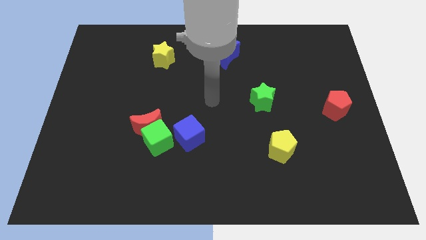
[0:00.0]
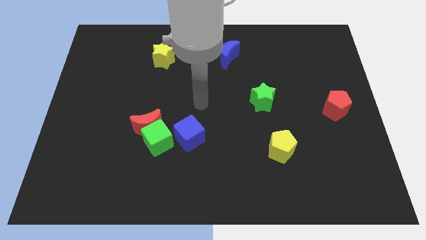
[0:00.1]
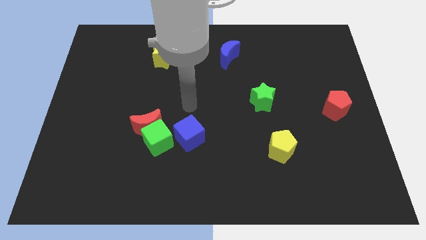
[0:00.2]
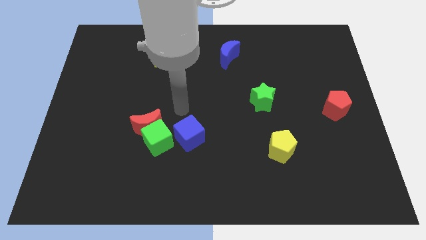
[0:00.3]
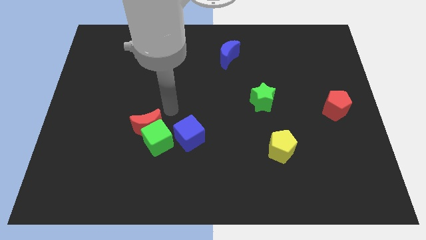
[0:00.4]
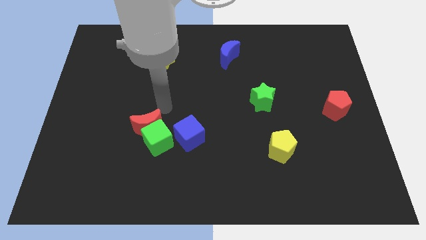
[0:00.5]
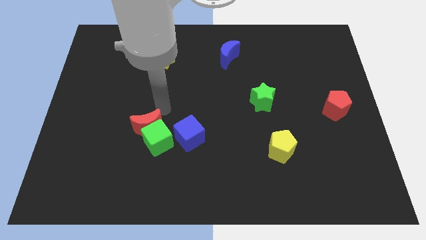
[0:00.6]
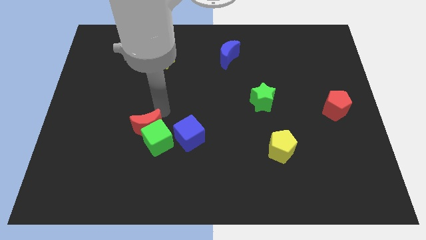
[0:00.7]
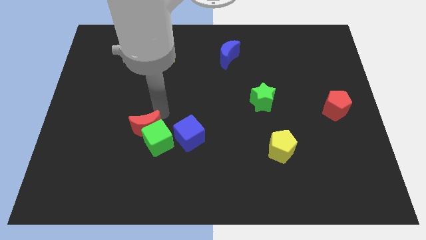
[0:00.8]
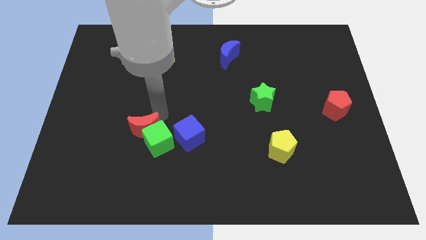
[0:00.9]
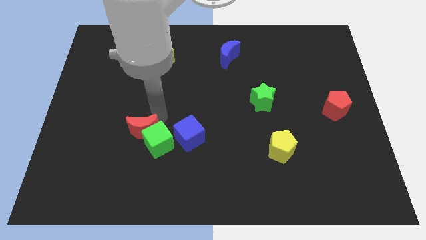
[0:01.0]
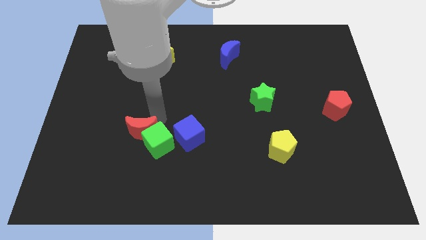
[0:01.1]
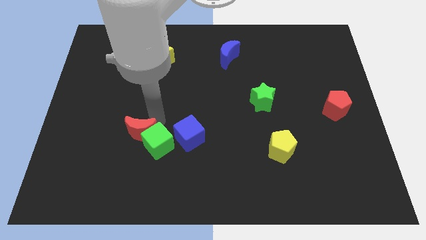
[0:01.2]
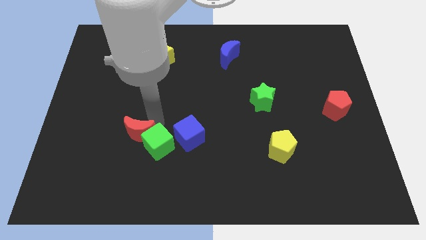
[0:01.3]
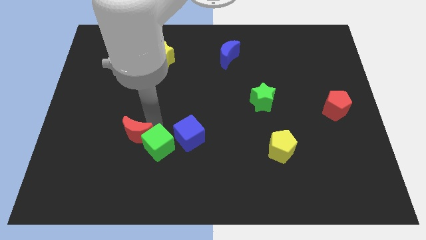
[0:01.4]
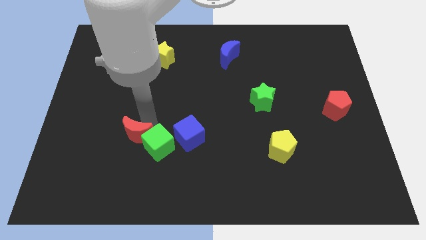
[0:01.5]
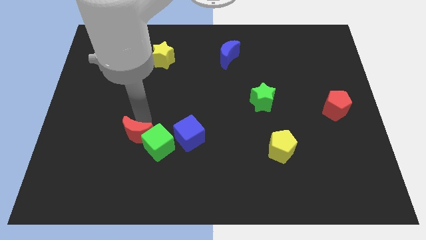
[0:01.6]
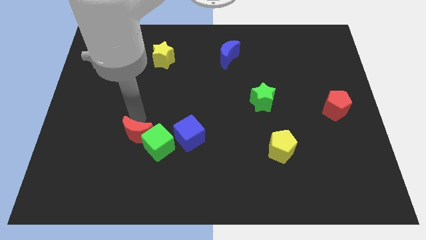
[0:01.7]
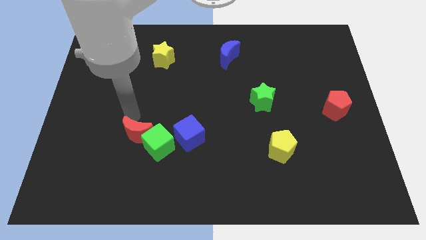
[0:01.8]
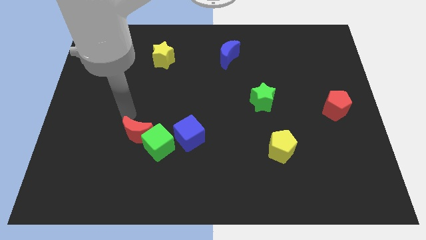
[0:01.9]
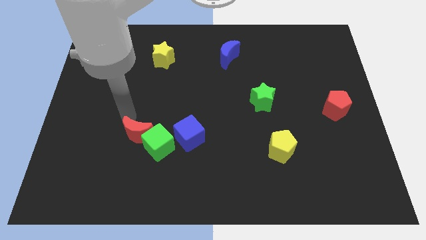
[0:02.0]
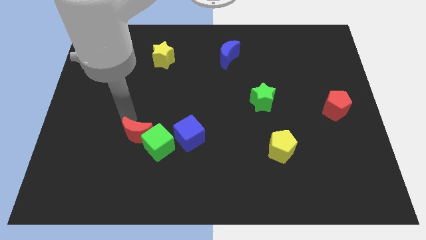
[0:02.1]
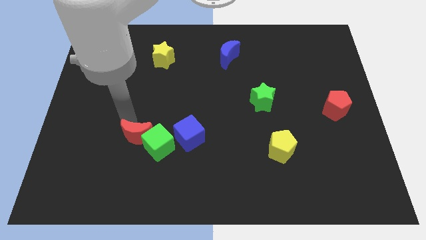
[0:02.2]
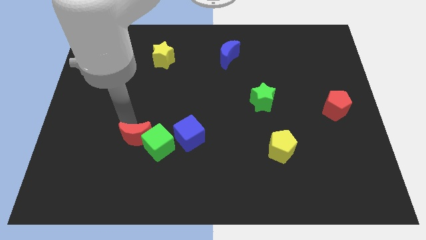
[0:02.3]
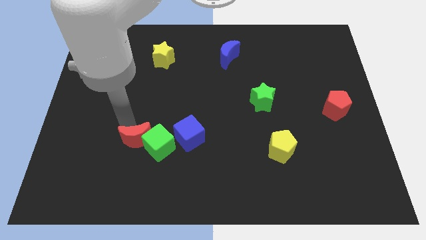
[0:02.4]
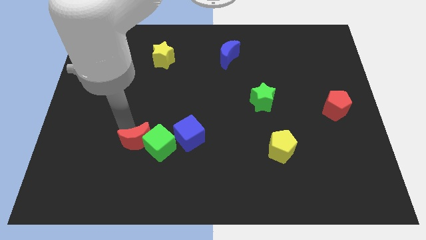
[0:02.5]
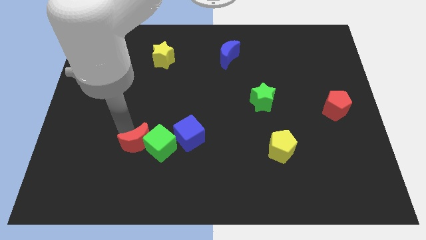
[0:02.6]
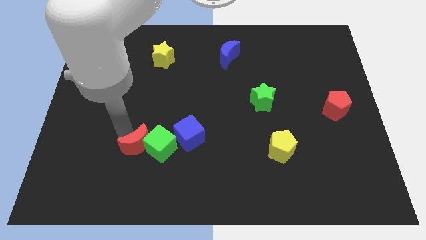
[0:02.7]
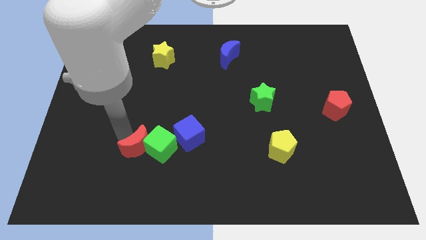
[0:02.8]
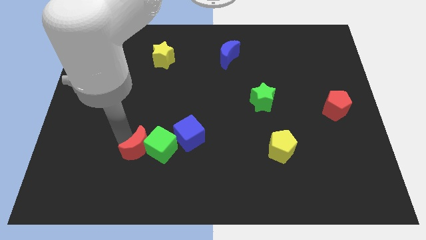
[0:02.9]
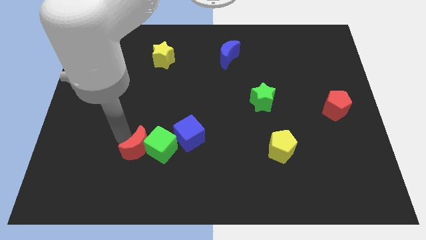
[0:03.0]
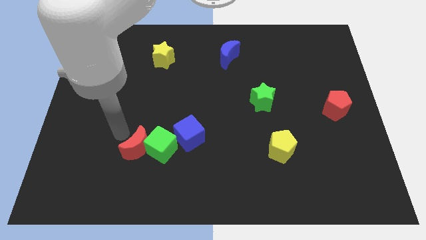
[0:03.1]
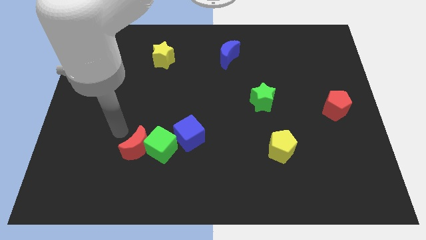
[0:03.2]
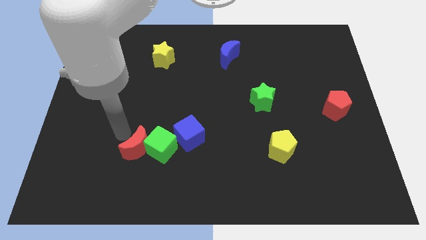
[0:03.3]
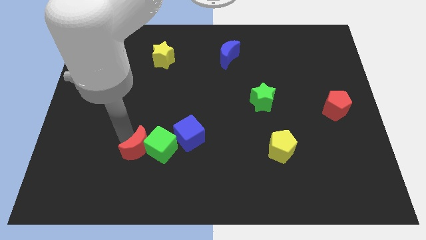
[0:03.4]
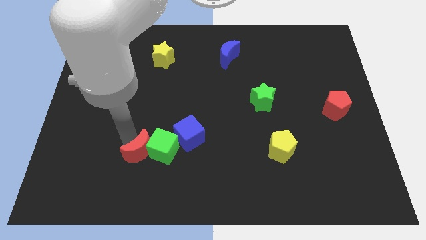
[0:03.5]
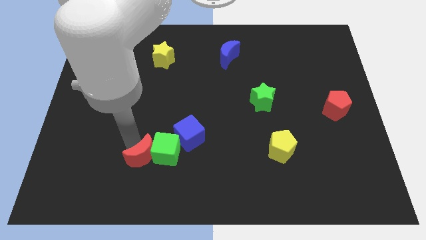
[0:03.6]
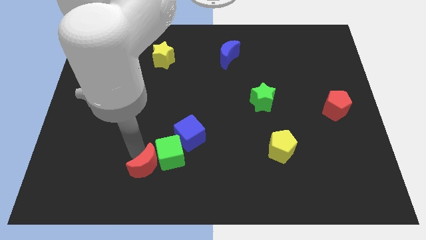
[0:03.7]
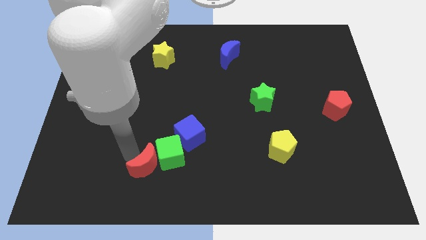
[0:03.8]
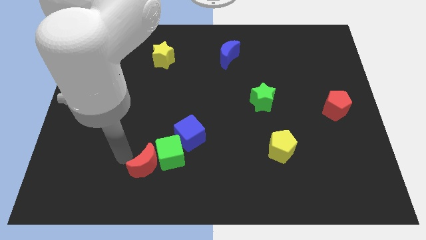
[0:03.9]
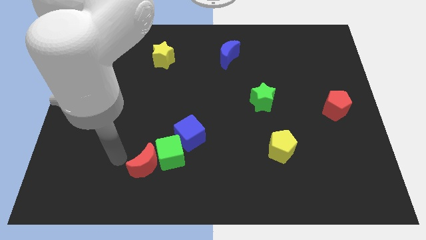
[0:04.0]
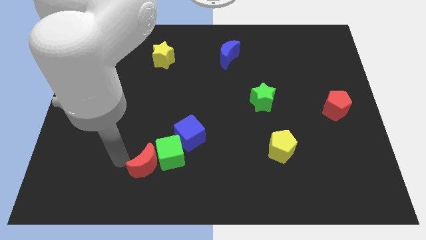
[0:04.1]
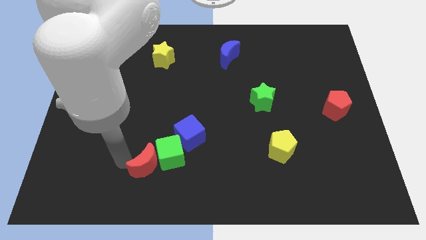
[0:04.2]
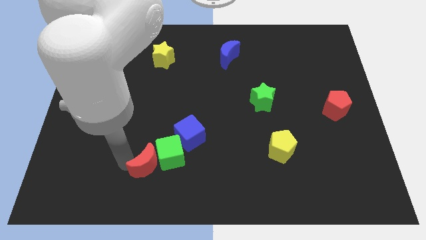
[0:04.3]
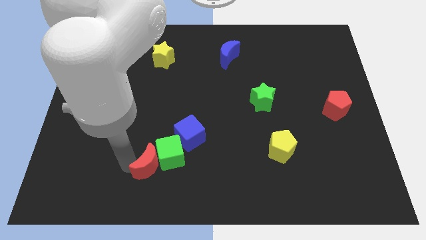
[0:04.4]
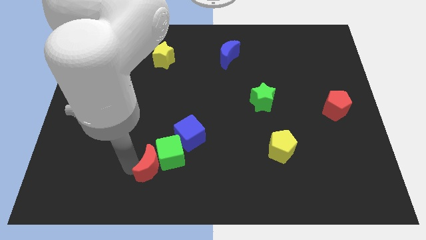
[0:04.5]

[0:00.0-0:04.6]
slightly slide the red moon downwards and to the right diagonally

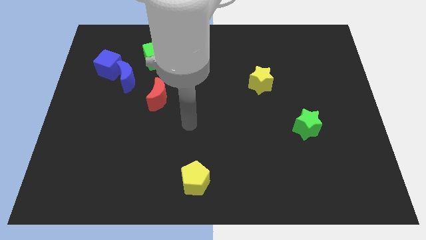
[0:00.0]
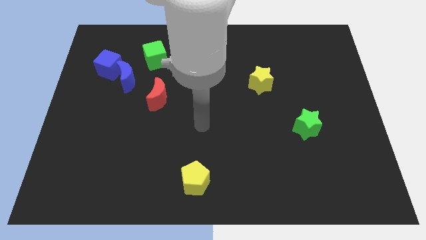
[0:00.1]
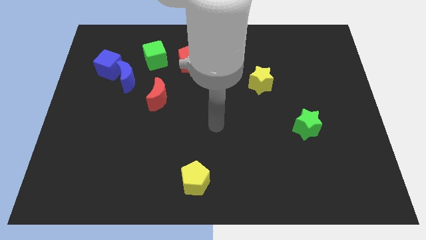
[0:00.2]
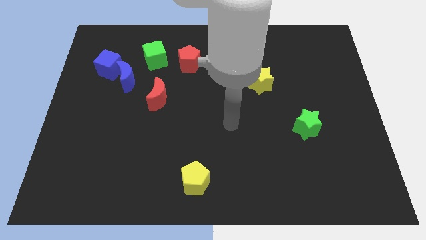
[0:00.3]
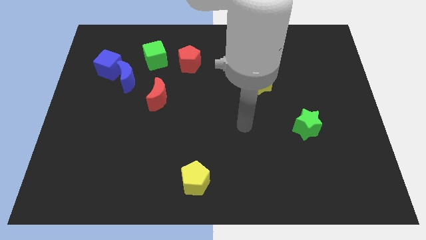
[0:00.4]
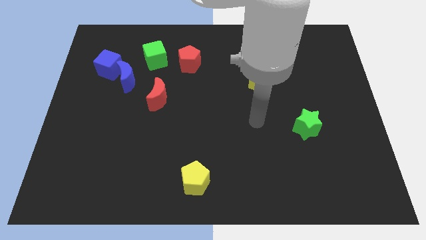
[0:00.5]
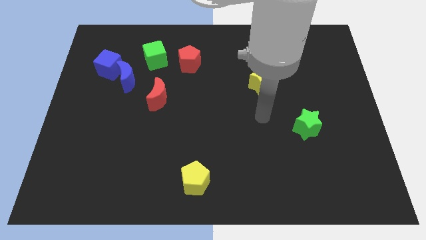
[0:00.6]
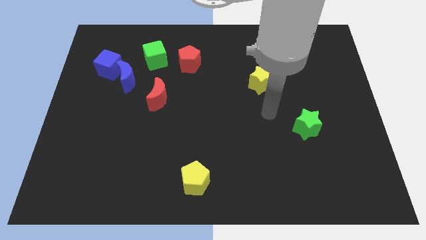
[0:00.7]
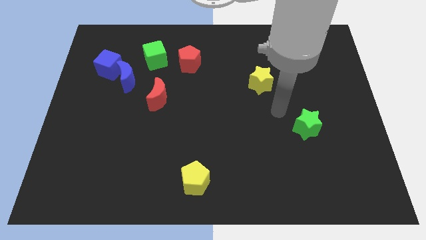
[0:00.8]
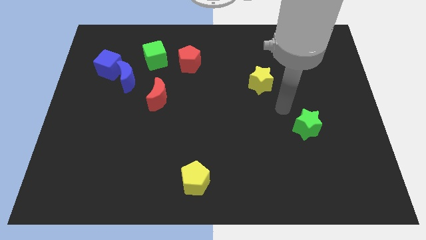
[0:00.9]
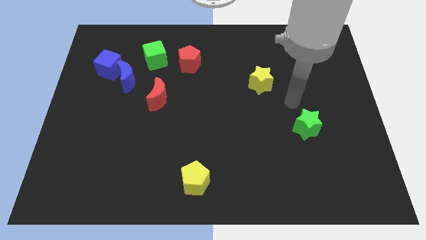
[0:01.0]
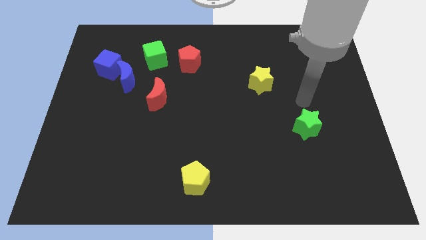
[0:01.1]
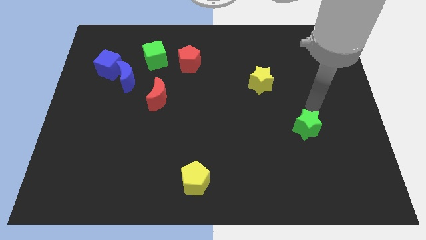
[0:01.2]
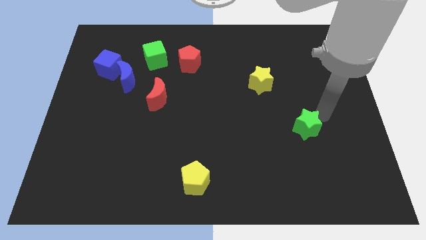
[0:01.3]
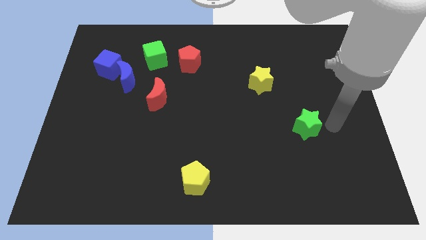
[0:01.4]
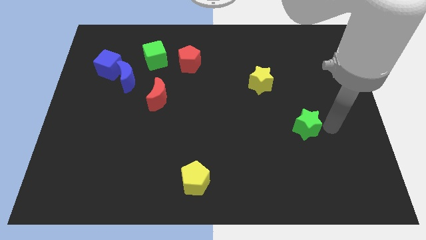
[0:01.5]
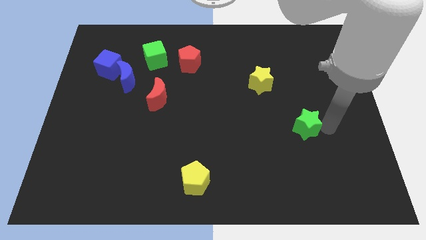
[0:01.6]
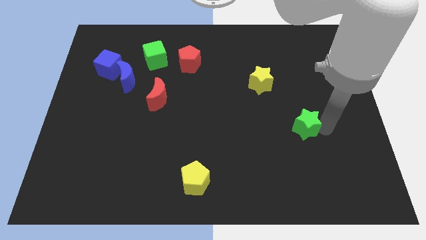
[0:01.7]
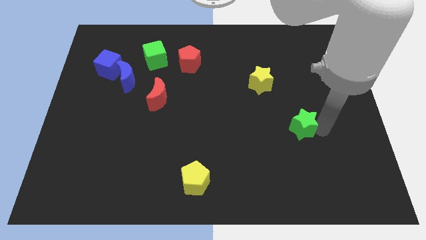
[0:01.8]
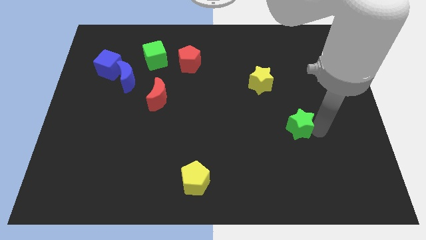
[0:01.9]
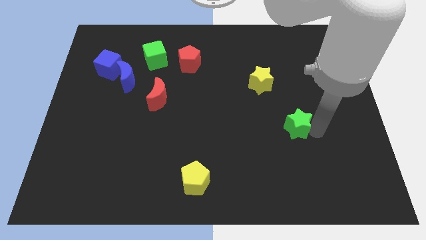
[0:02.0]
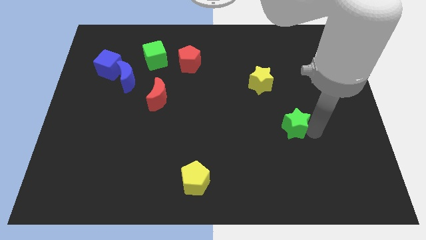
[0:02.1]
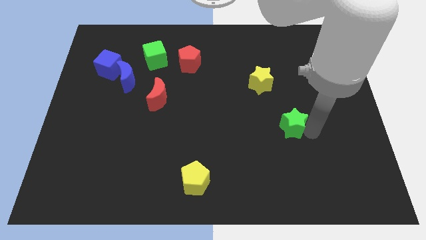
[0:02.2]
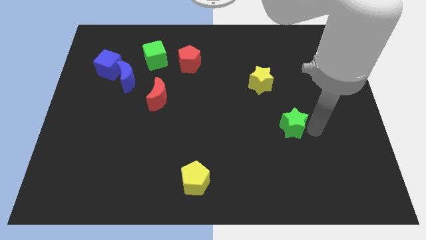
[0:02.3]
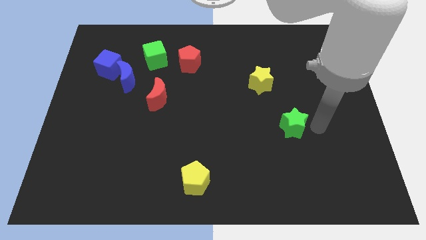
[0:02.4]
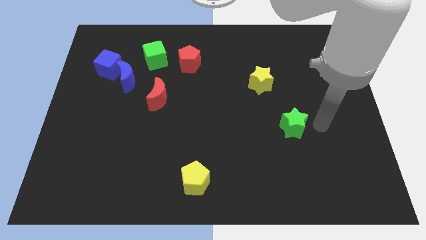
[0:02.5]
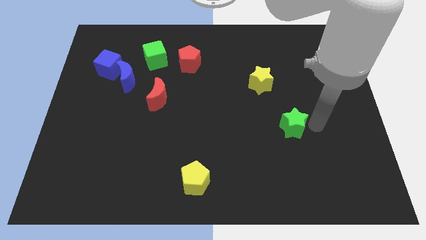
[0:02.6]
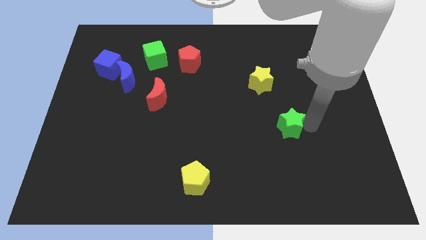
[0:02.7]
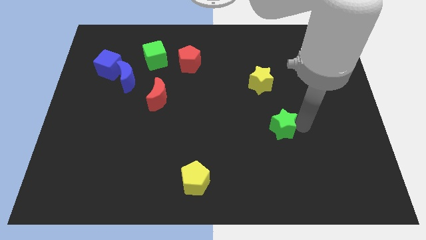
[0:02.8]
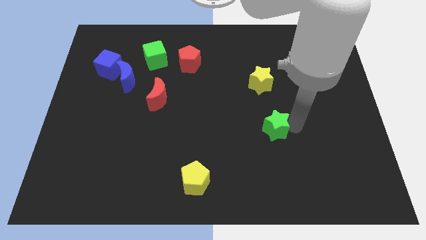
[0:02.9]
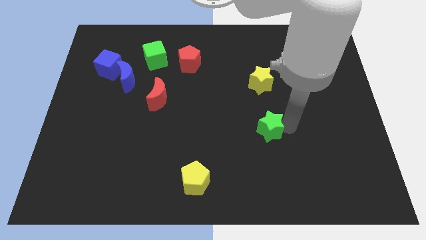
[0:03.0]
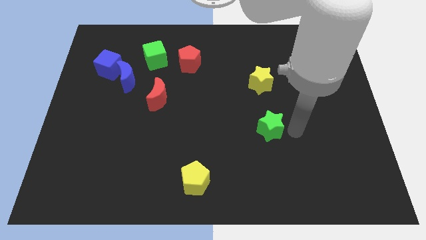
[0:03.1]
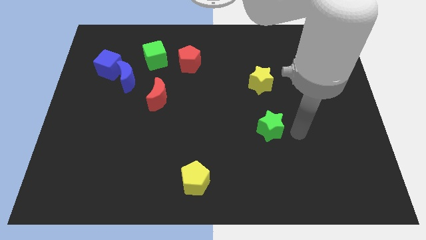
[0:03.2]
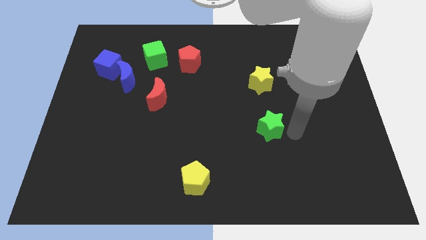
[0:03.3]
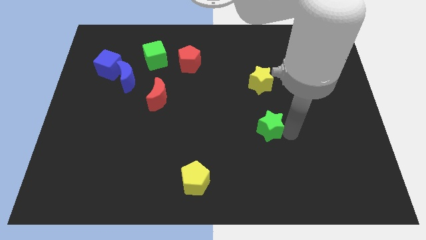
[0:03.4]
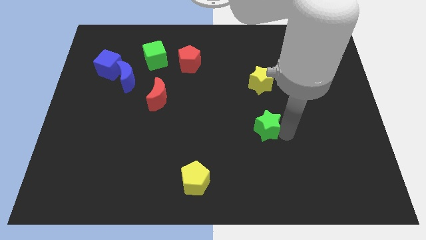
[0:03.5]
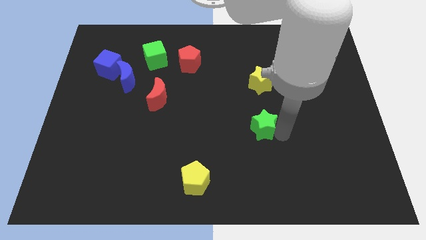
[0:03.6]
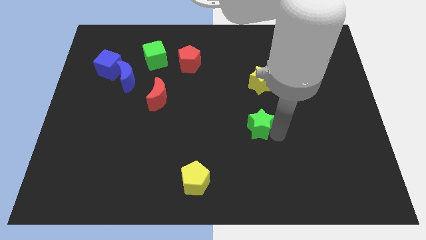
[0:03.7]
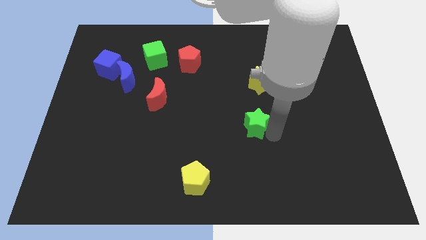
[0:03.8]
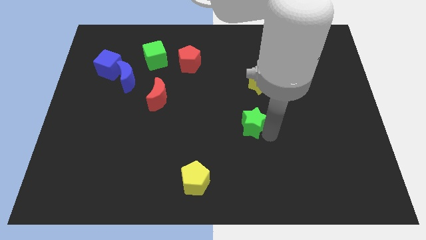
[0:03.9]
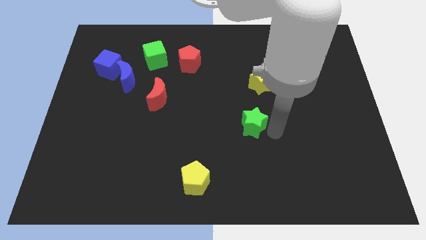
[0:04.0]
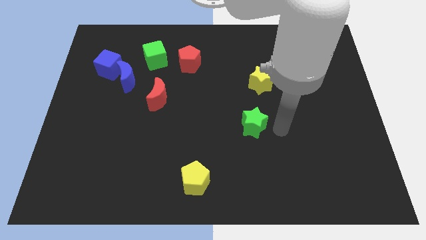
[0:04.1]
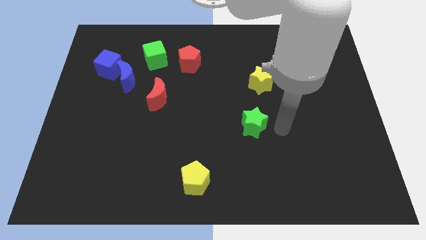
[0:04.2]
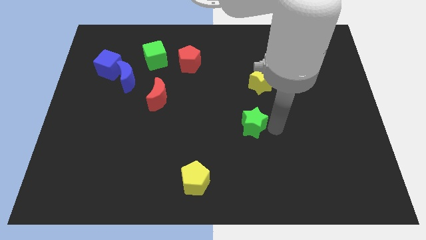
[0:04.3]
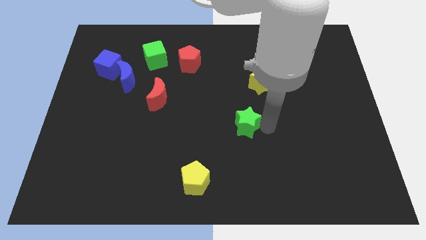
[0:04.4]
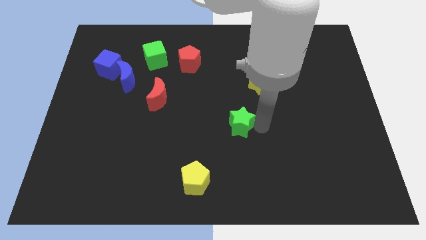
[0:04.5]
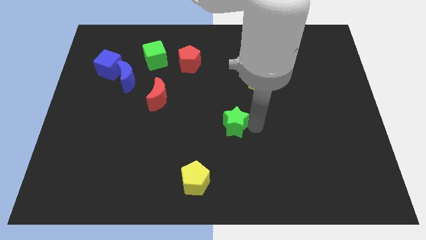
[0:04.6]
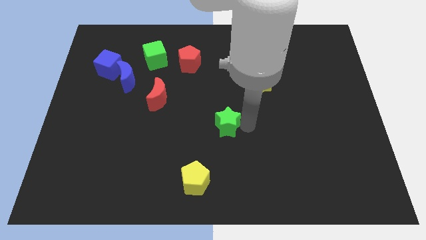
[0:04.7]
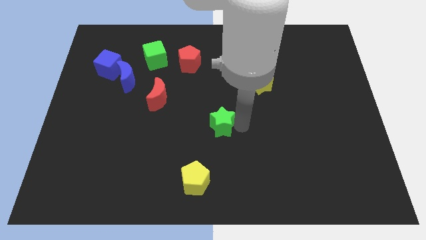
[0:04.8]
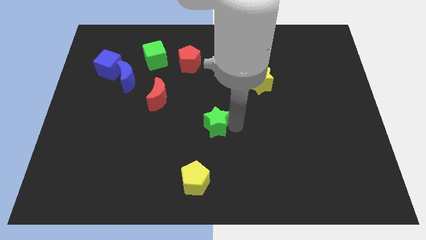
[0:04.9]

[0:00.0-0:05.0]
move the green star to the left
